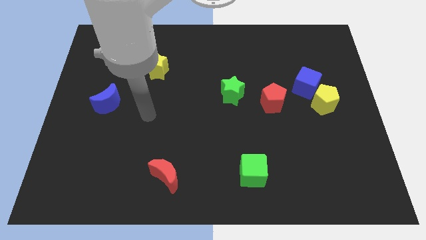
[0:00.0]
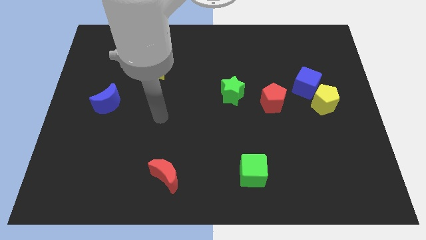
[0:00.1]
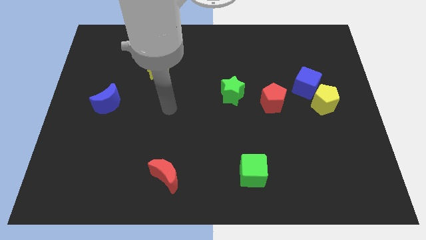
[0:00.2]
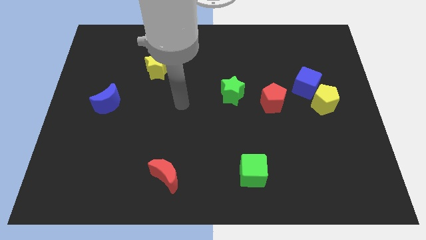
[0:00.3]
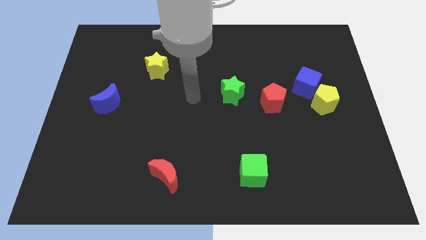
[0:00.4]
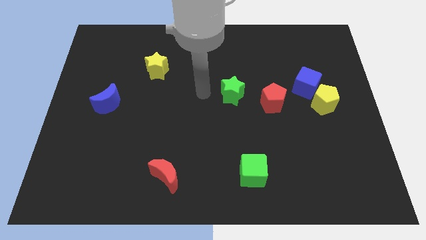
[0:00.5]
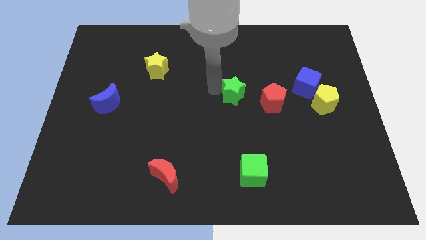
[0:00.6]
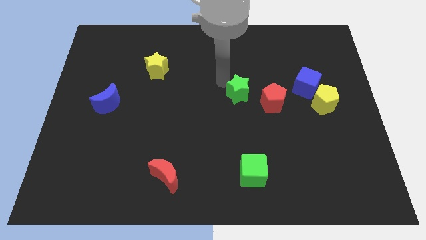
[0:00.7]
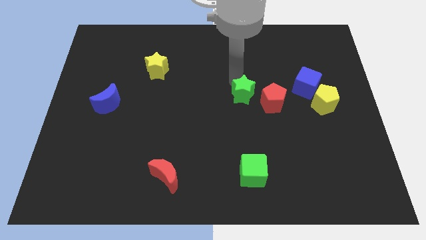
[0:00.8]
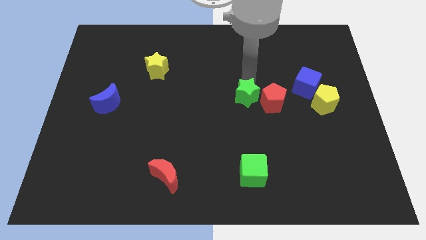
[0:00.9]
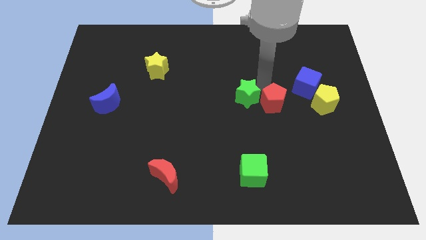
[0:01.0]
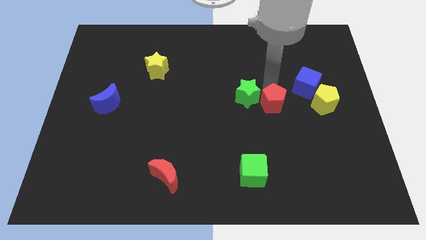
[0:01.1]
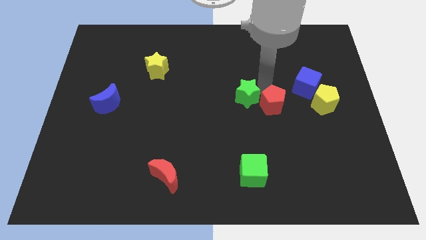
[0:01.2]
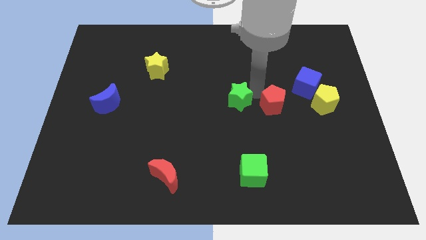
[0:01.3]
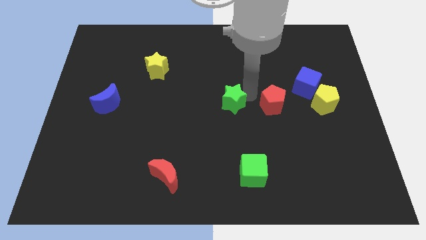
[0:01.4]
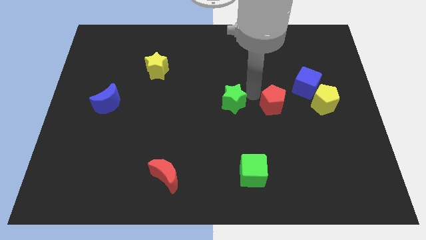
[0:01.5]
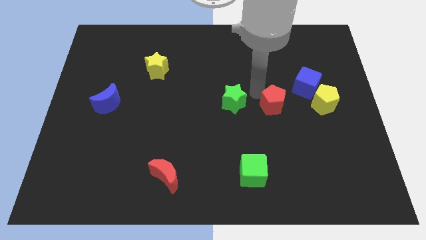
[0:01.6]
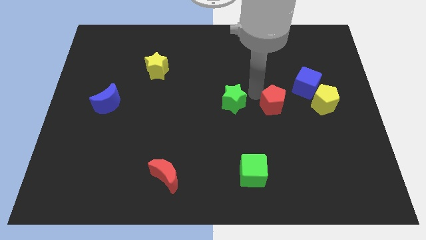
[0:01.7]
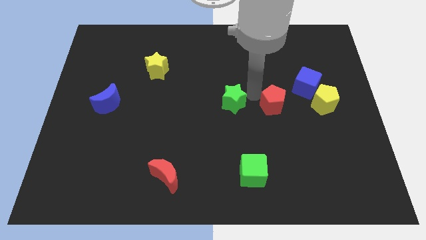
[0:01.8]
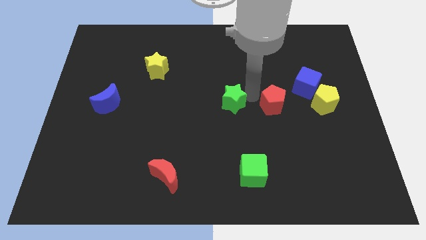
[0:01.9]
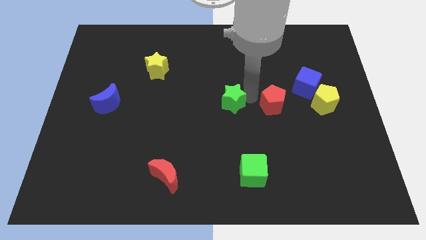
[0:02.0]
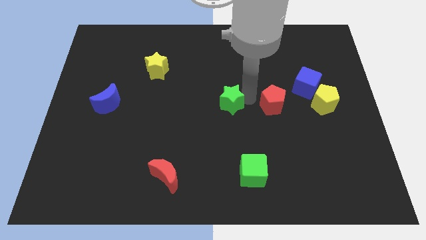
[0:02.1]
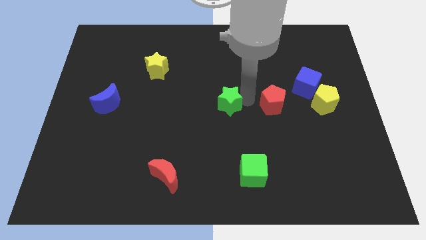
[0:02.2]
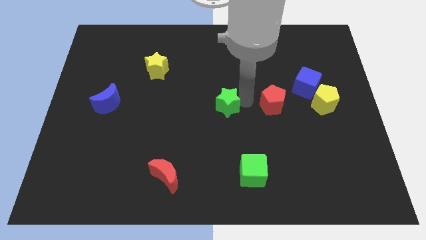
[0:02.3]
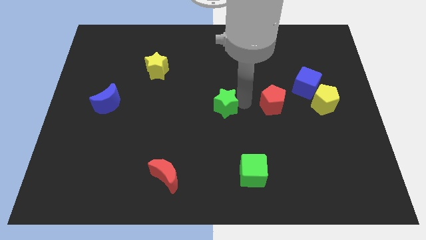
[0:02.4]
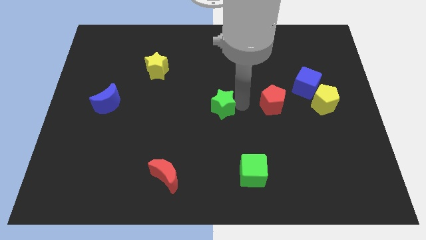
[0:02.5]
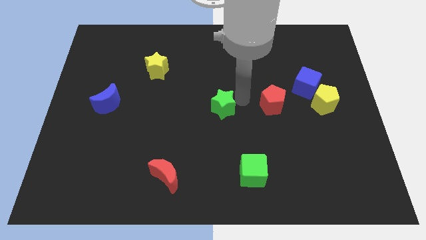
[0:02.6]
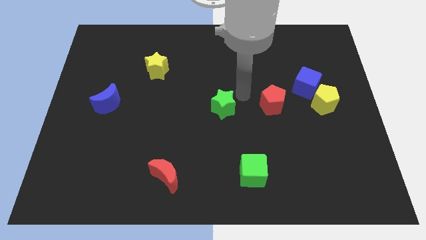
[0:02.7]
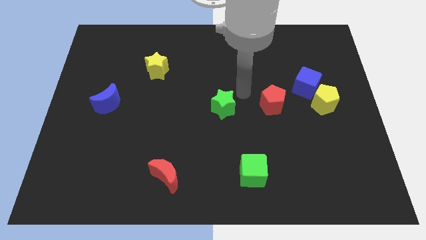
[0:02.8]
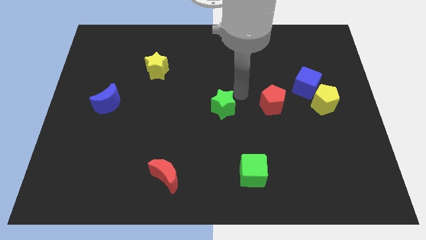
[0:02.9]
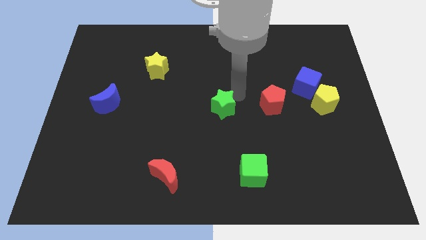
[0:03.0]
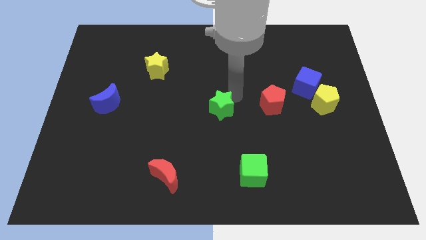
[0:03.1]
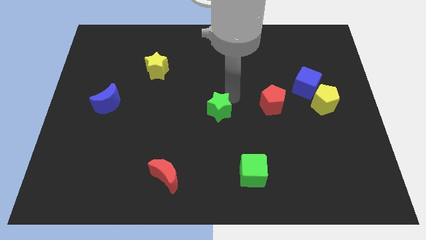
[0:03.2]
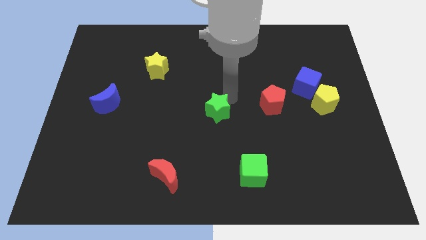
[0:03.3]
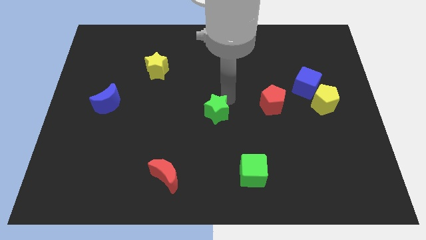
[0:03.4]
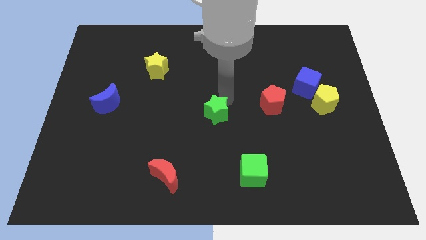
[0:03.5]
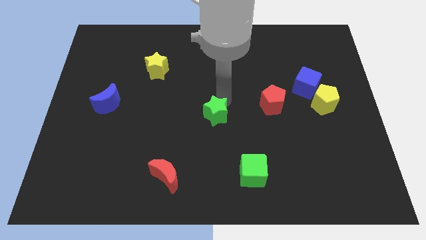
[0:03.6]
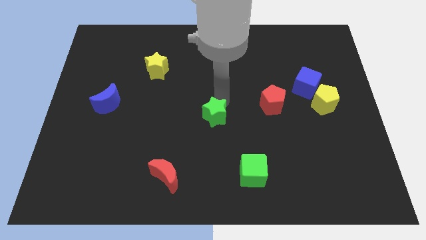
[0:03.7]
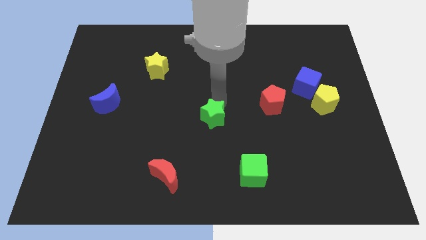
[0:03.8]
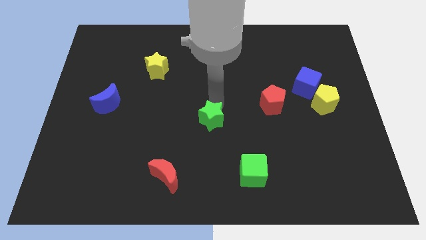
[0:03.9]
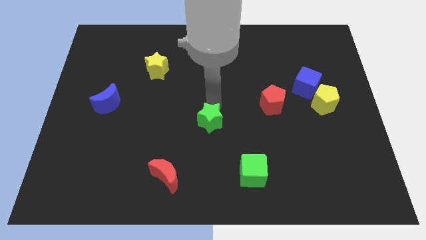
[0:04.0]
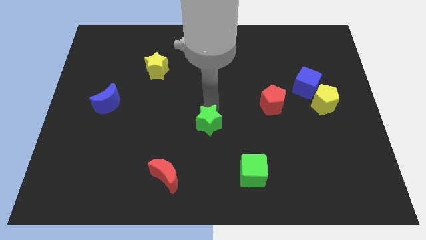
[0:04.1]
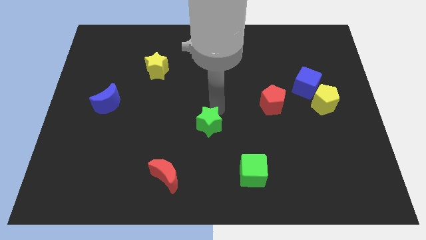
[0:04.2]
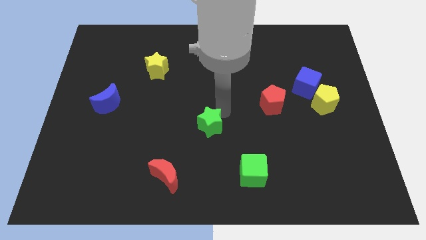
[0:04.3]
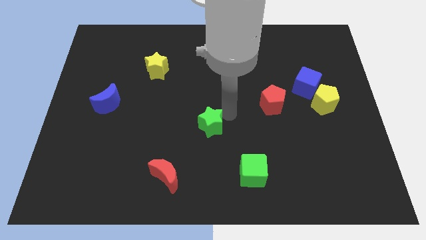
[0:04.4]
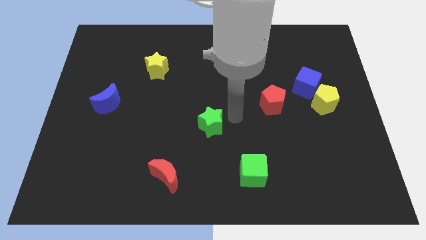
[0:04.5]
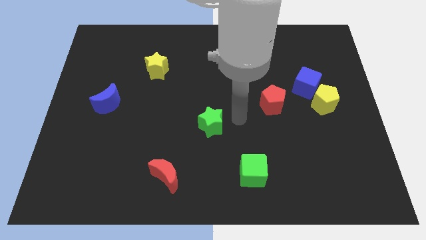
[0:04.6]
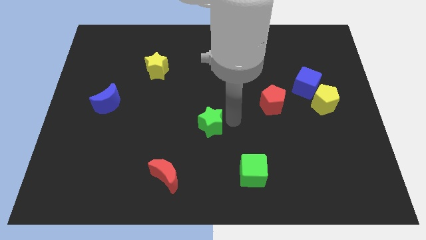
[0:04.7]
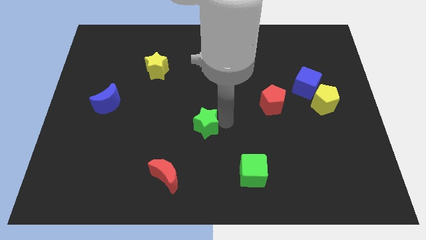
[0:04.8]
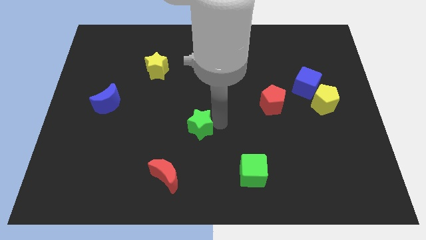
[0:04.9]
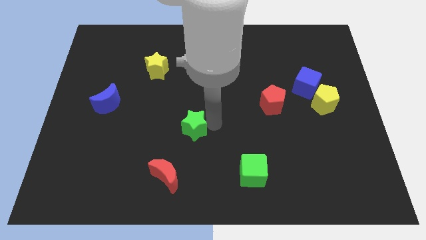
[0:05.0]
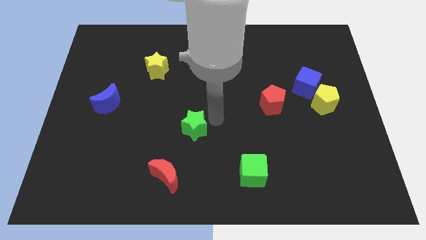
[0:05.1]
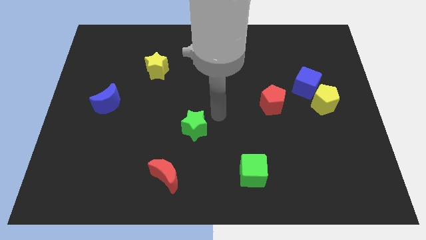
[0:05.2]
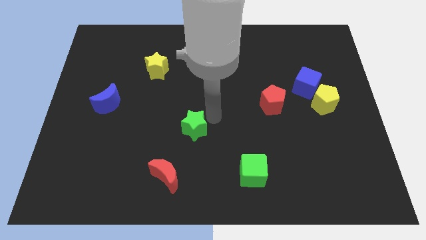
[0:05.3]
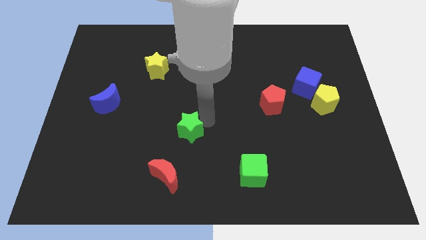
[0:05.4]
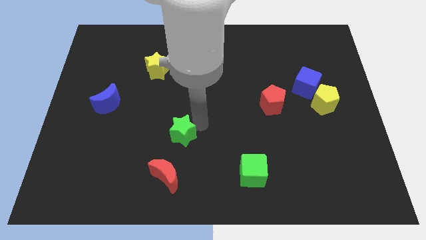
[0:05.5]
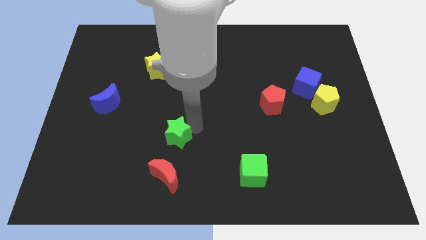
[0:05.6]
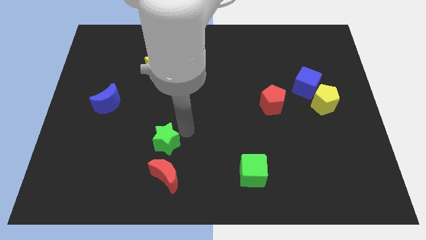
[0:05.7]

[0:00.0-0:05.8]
slide the green star downwards and to the left diagonally

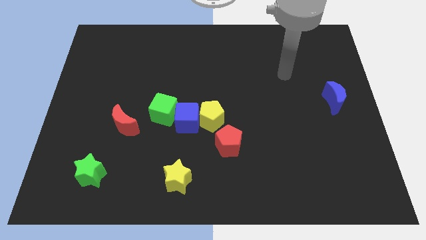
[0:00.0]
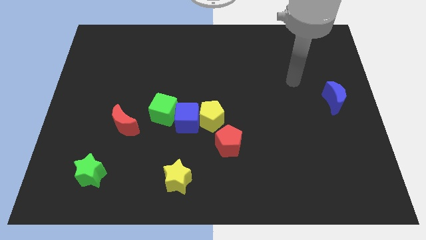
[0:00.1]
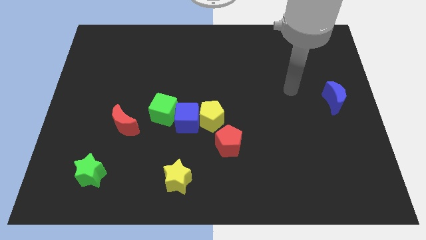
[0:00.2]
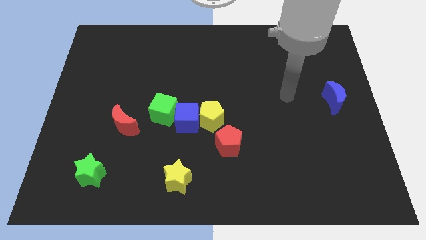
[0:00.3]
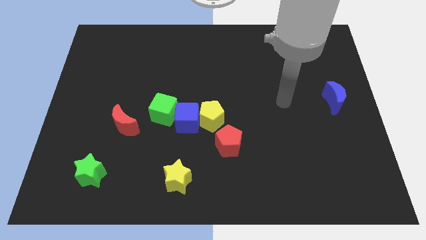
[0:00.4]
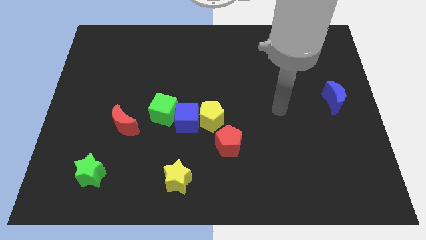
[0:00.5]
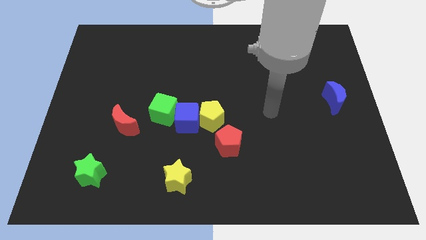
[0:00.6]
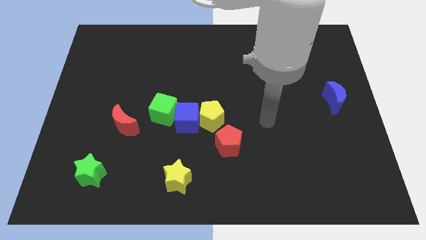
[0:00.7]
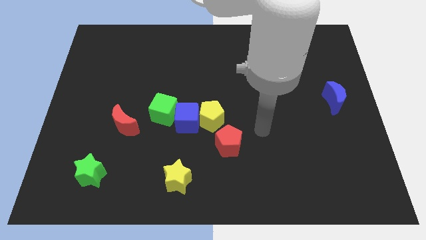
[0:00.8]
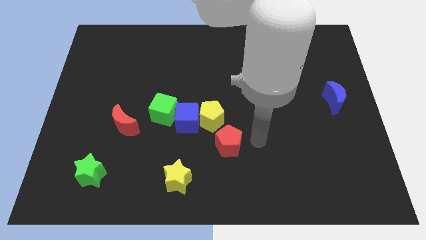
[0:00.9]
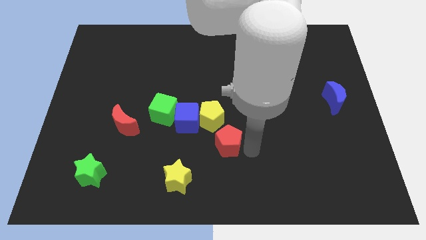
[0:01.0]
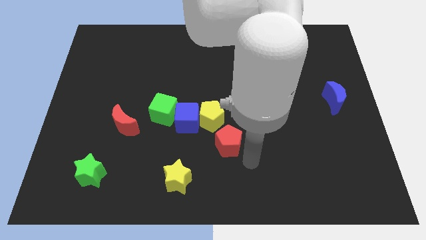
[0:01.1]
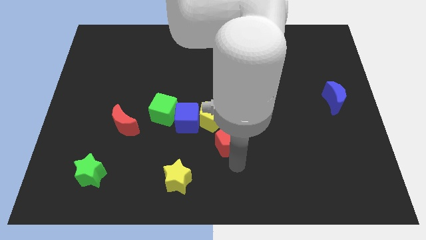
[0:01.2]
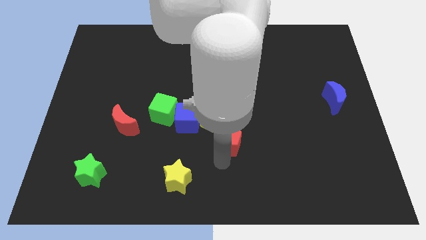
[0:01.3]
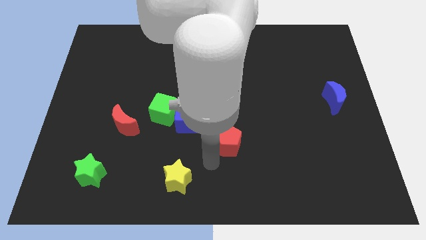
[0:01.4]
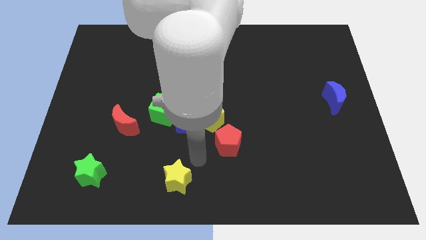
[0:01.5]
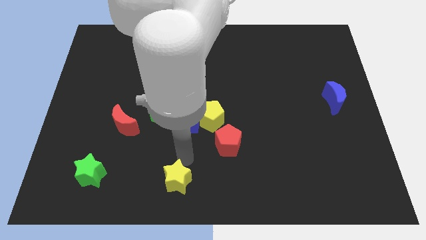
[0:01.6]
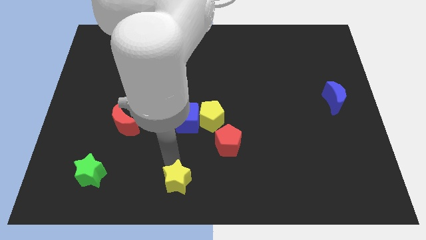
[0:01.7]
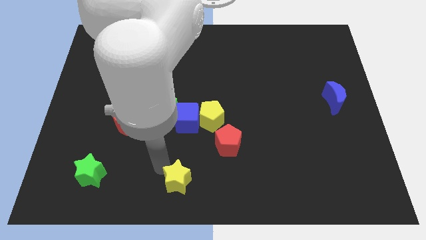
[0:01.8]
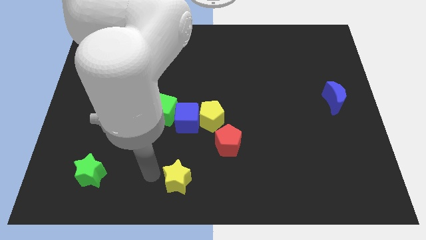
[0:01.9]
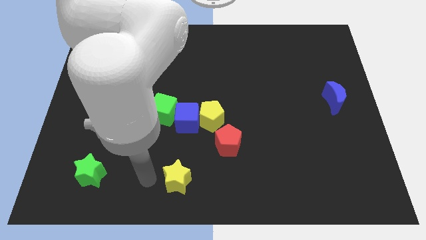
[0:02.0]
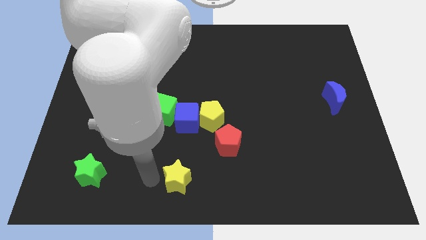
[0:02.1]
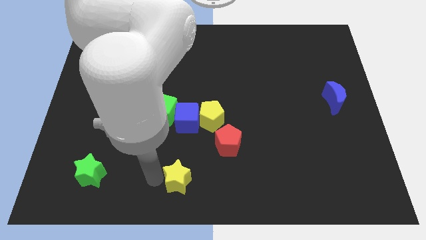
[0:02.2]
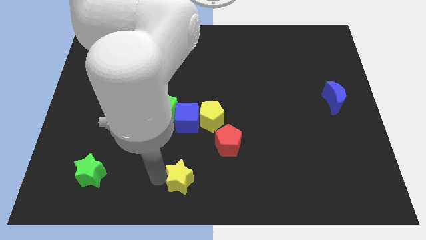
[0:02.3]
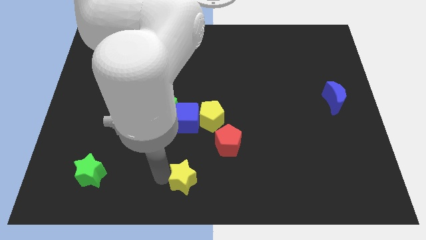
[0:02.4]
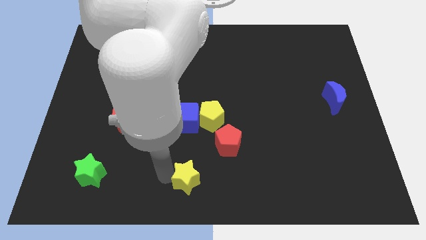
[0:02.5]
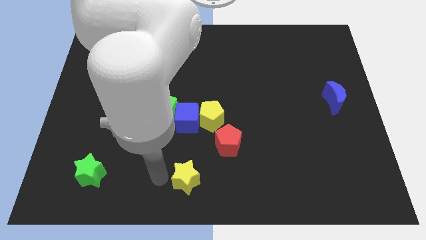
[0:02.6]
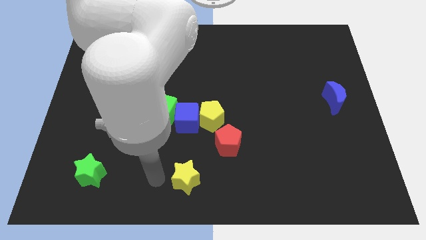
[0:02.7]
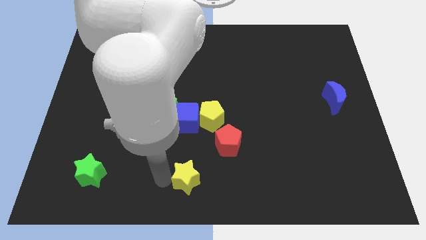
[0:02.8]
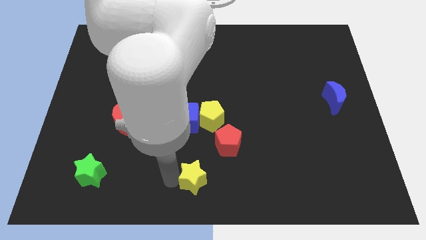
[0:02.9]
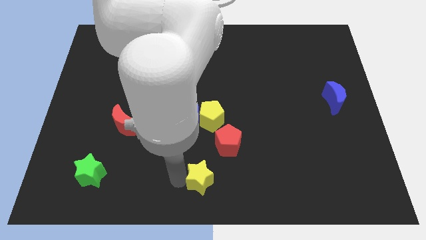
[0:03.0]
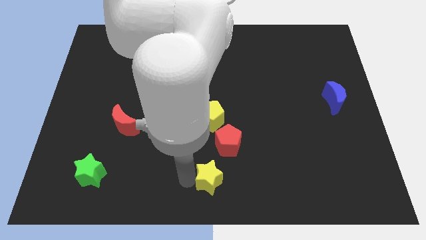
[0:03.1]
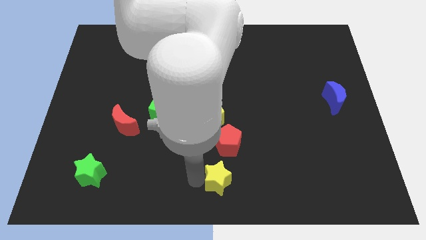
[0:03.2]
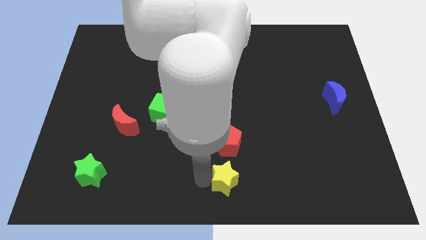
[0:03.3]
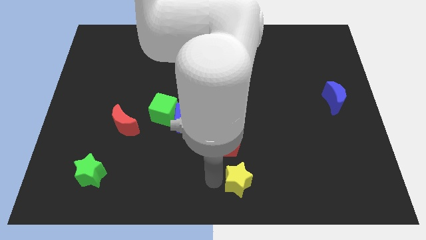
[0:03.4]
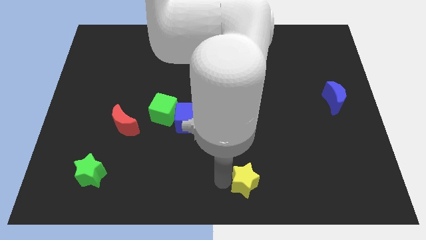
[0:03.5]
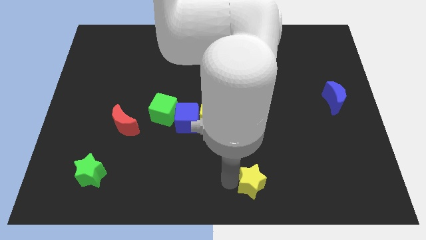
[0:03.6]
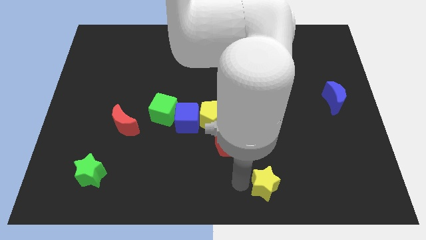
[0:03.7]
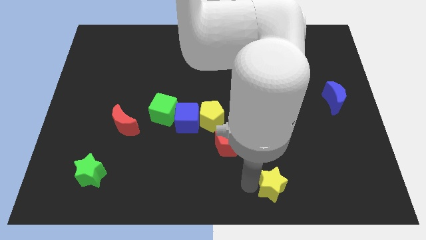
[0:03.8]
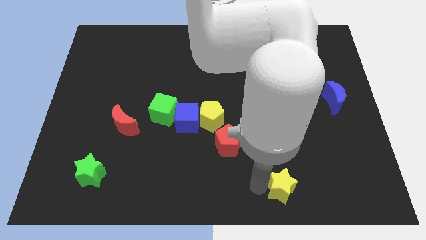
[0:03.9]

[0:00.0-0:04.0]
slide the yellow star right
